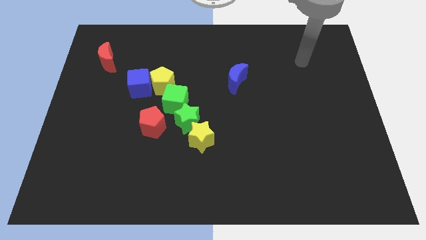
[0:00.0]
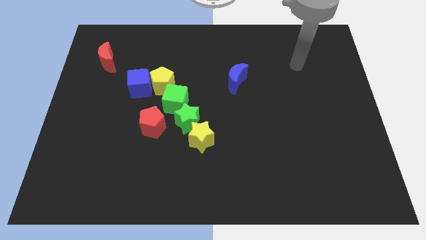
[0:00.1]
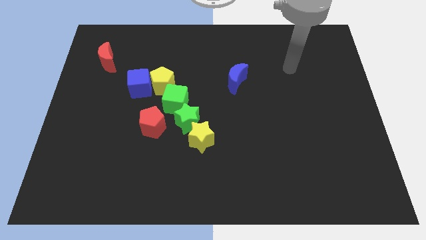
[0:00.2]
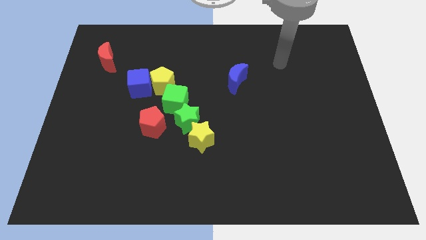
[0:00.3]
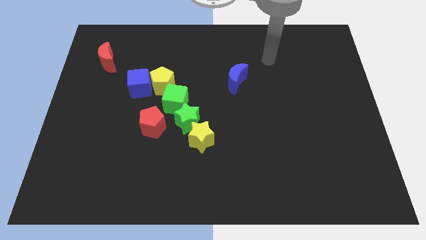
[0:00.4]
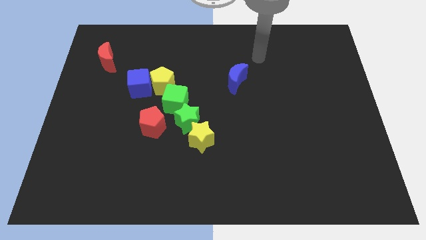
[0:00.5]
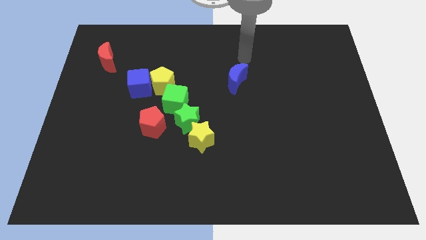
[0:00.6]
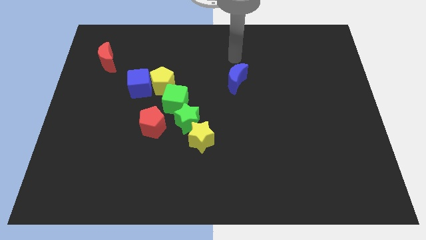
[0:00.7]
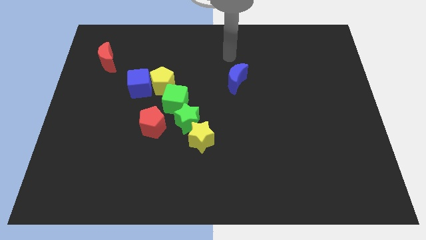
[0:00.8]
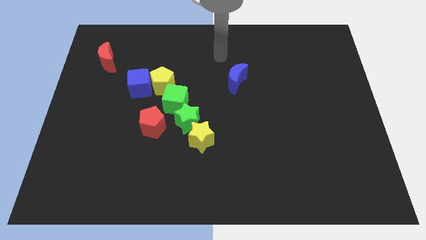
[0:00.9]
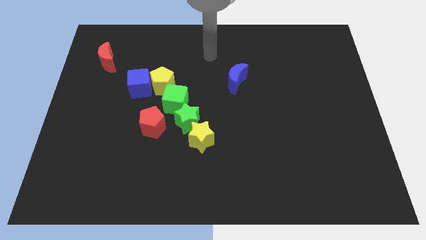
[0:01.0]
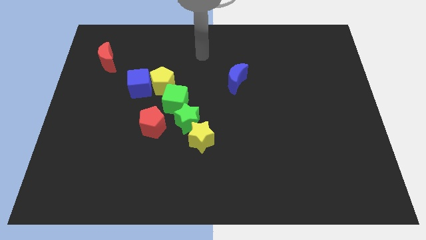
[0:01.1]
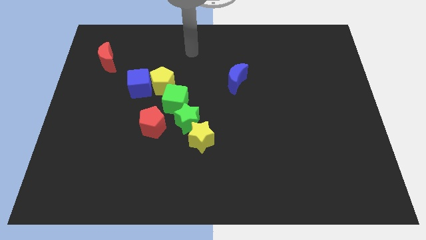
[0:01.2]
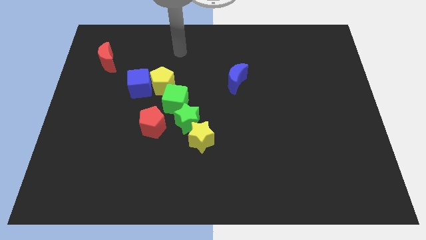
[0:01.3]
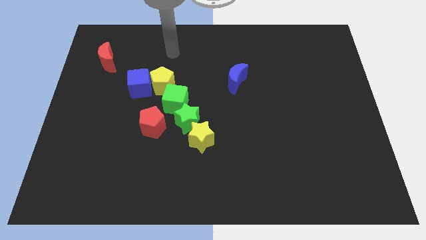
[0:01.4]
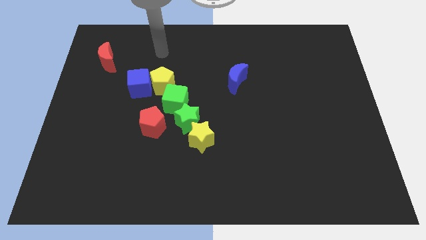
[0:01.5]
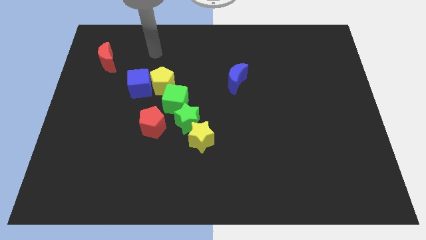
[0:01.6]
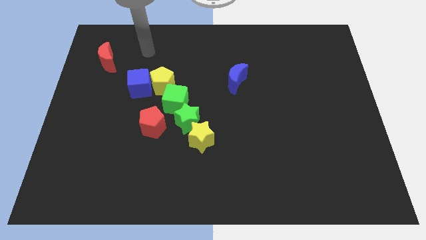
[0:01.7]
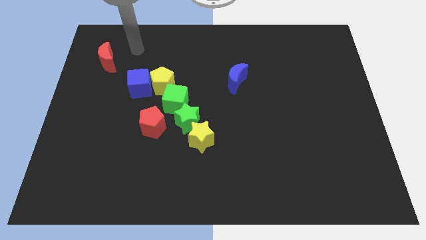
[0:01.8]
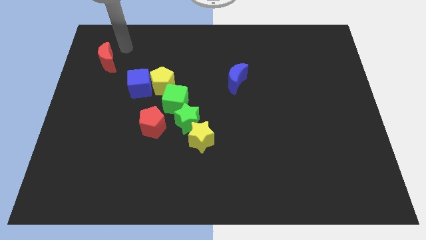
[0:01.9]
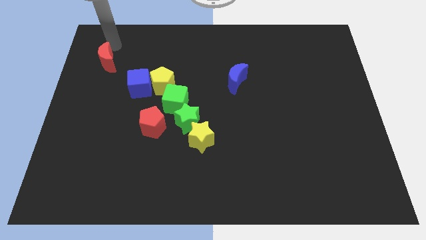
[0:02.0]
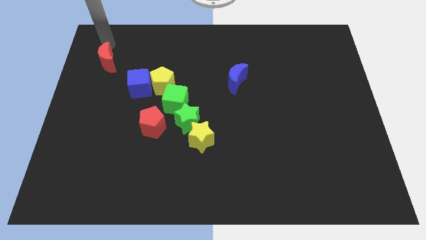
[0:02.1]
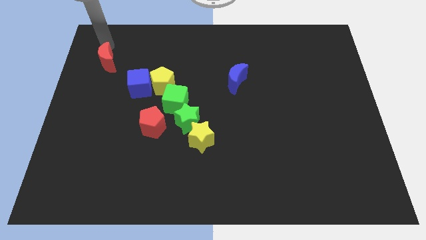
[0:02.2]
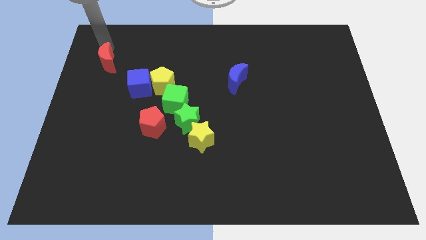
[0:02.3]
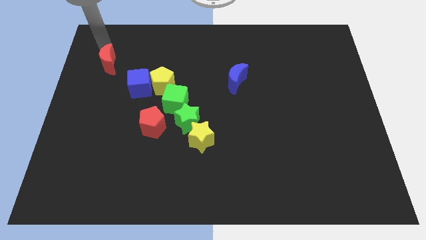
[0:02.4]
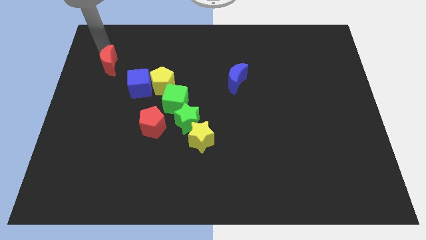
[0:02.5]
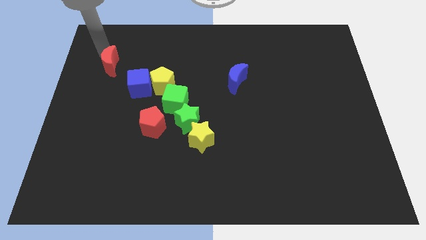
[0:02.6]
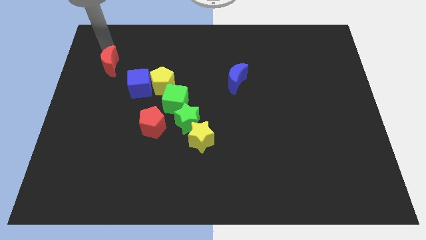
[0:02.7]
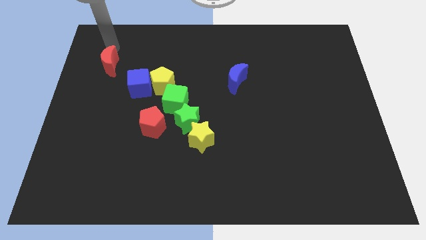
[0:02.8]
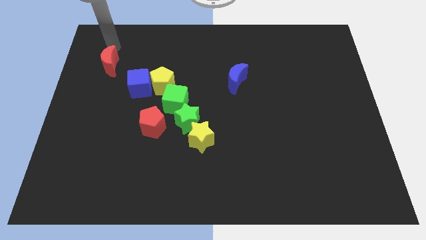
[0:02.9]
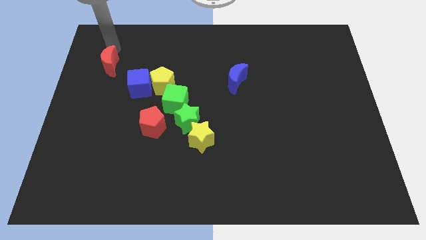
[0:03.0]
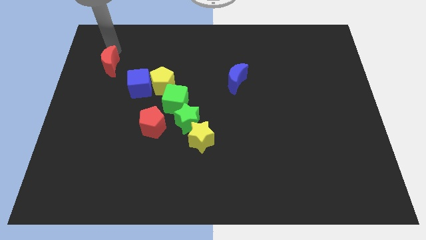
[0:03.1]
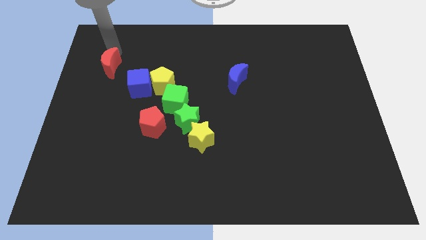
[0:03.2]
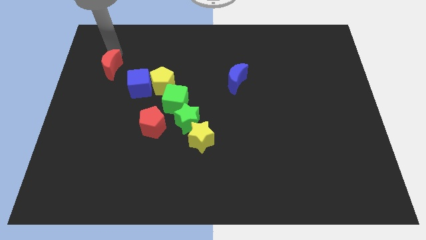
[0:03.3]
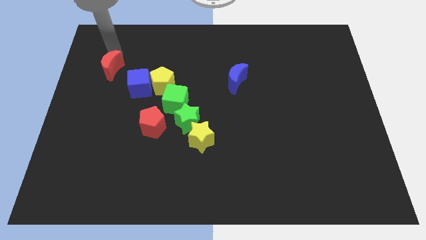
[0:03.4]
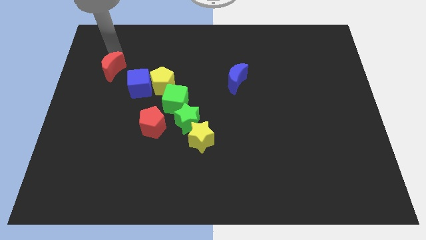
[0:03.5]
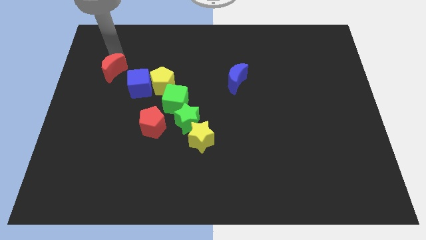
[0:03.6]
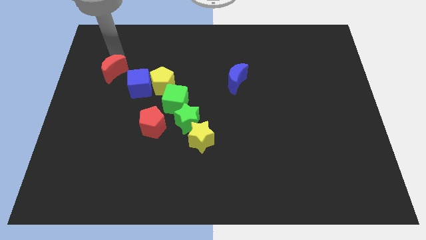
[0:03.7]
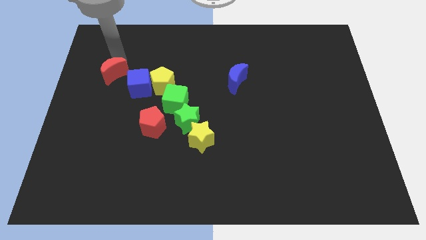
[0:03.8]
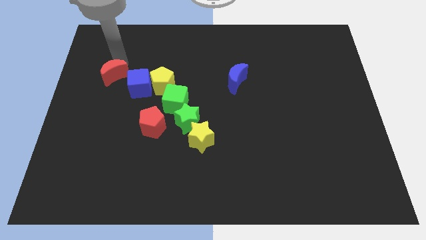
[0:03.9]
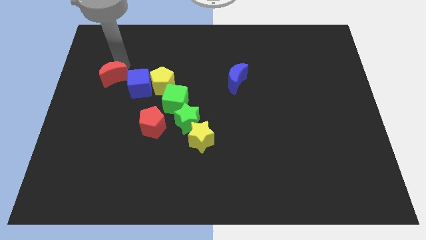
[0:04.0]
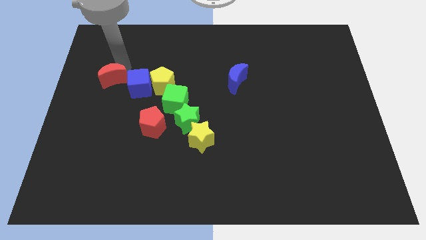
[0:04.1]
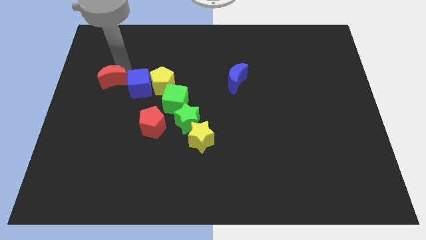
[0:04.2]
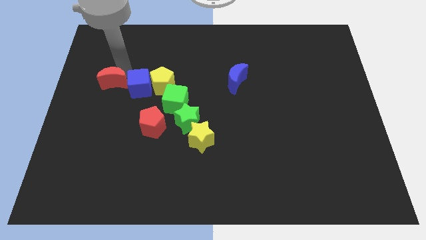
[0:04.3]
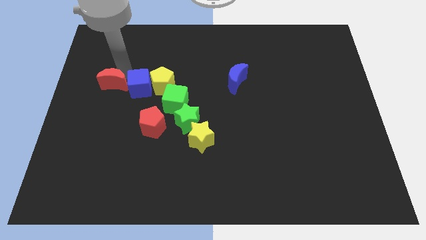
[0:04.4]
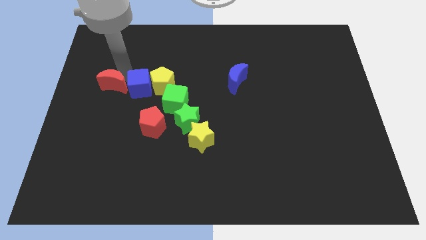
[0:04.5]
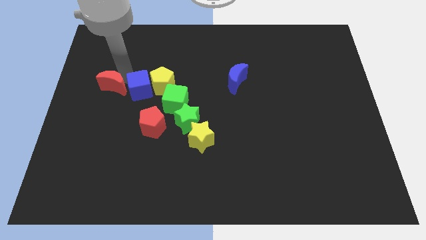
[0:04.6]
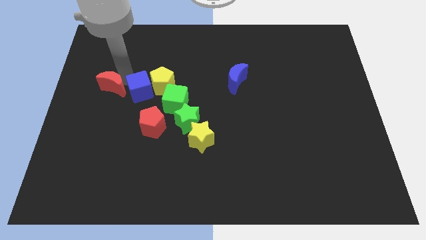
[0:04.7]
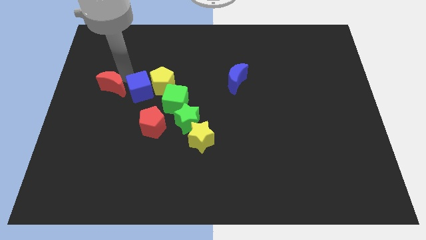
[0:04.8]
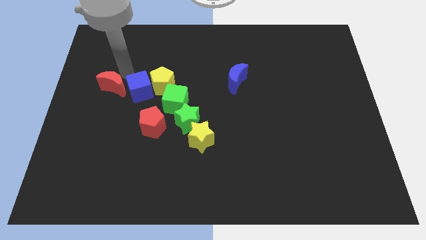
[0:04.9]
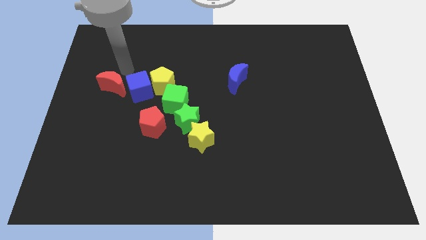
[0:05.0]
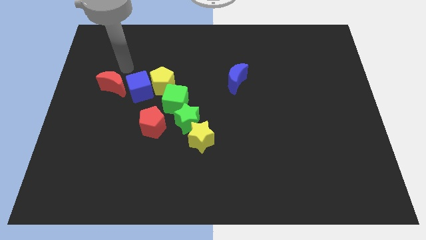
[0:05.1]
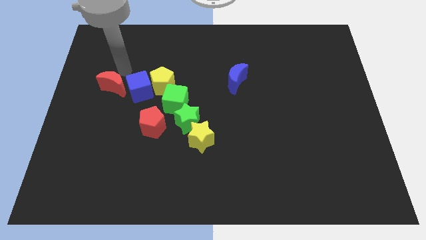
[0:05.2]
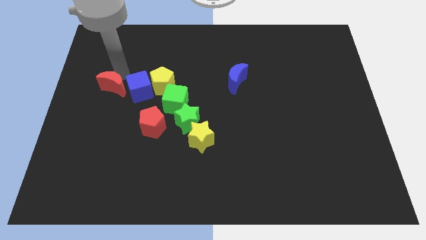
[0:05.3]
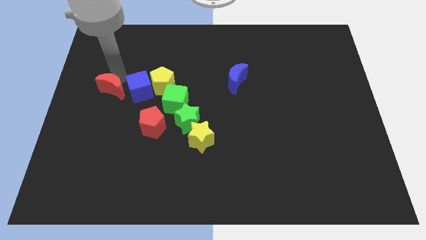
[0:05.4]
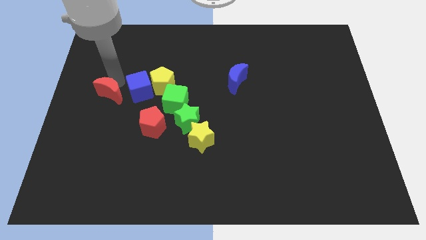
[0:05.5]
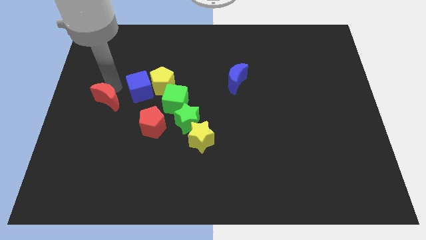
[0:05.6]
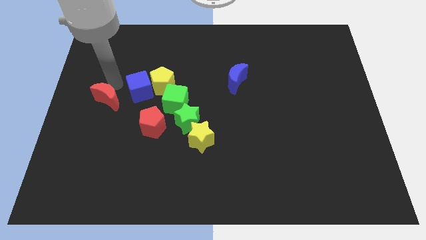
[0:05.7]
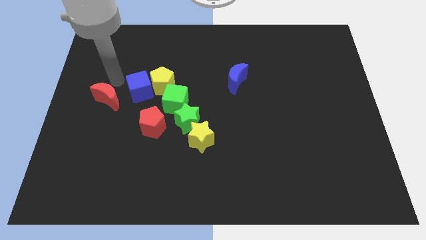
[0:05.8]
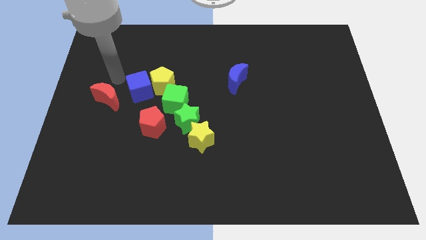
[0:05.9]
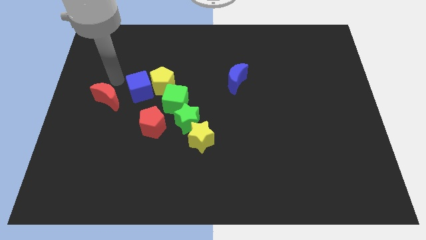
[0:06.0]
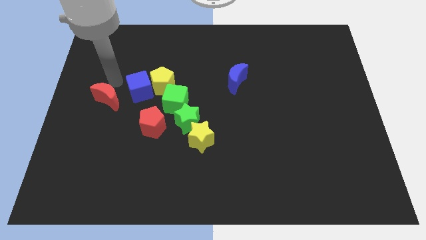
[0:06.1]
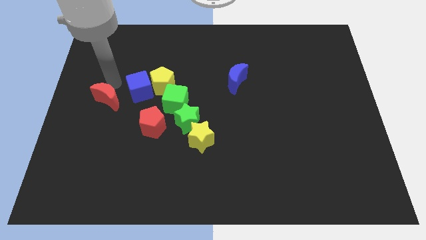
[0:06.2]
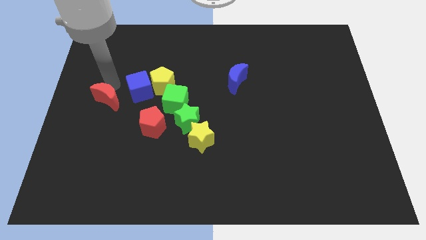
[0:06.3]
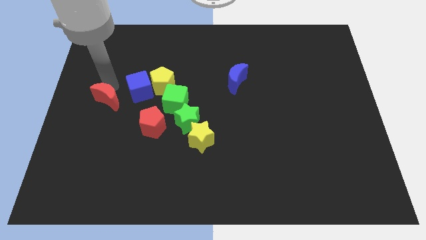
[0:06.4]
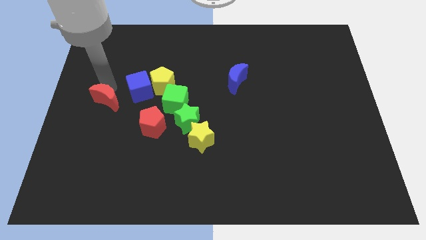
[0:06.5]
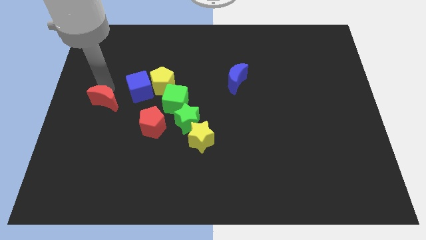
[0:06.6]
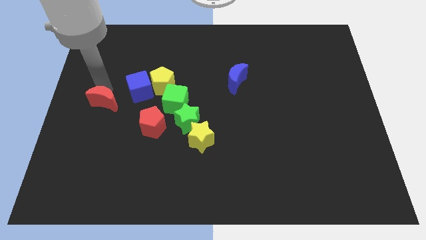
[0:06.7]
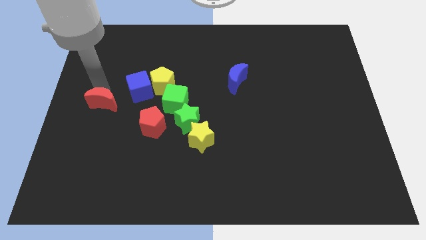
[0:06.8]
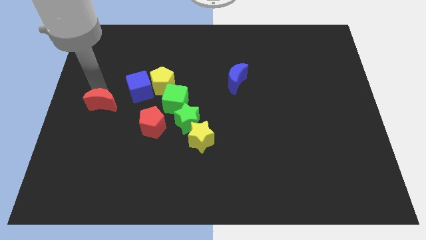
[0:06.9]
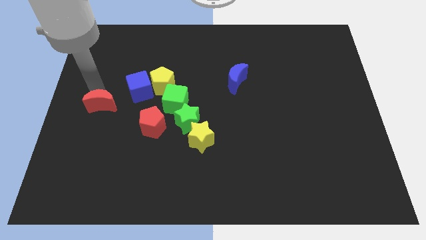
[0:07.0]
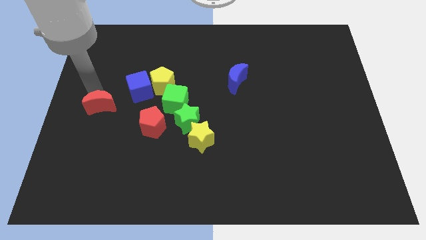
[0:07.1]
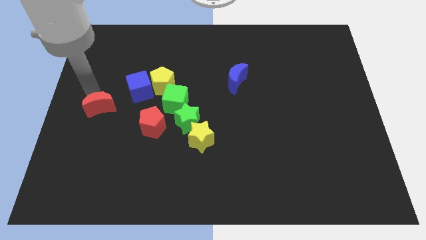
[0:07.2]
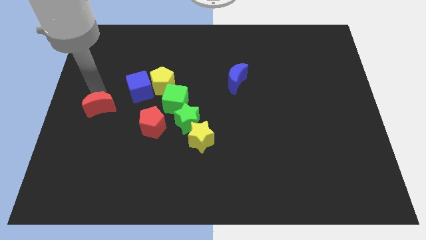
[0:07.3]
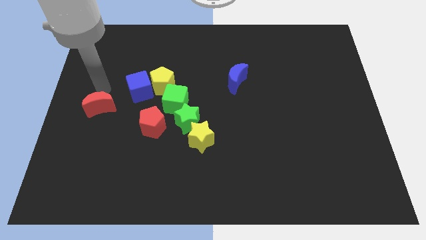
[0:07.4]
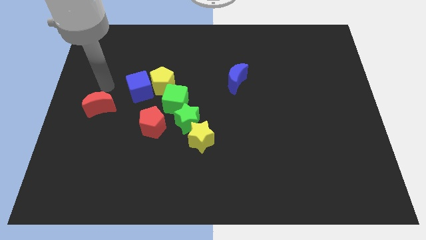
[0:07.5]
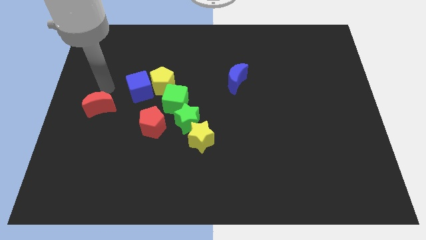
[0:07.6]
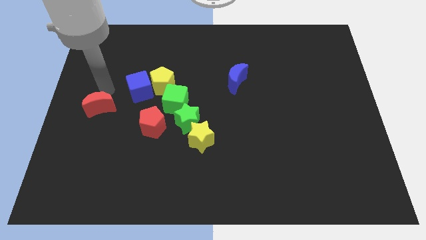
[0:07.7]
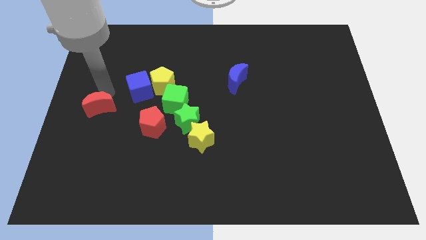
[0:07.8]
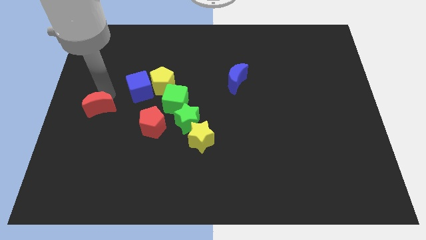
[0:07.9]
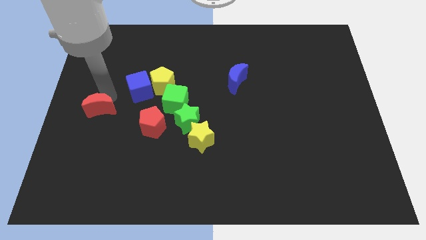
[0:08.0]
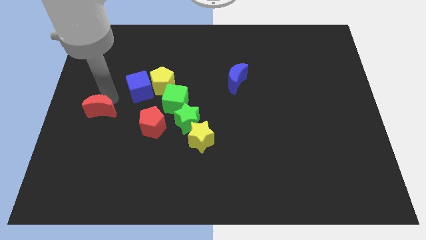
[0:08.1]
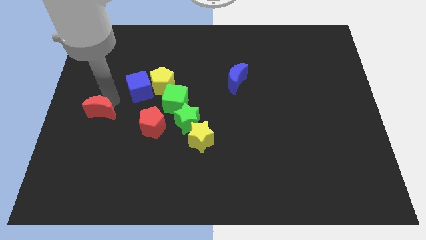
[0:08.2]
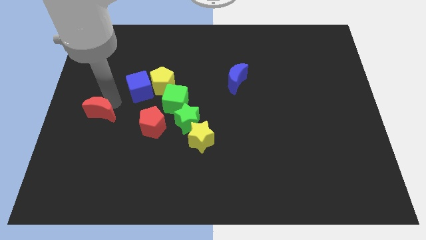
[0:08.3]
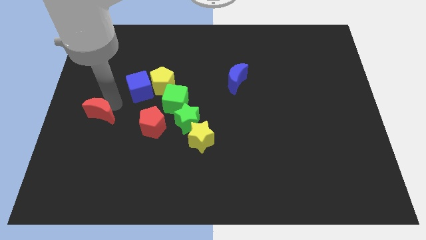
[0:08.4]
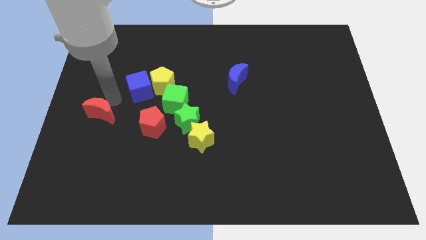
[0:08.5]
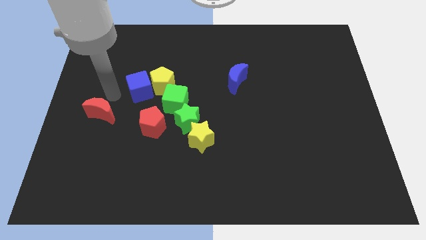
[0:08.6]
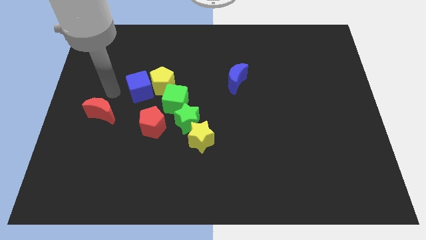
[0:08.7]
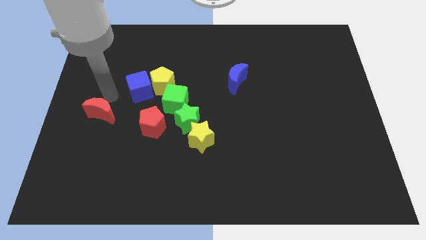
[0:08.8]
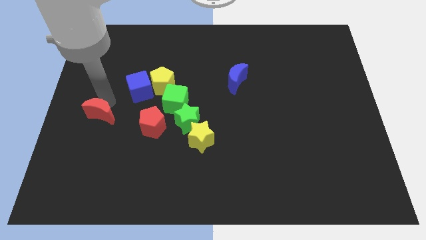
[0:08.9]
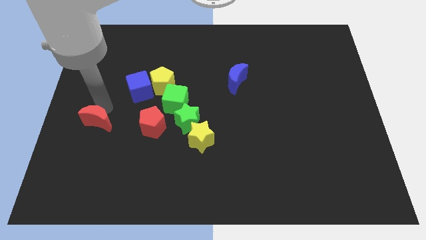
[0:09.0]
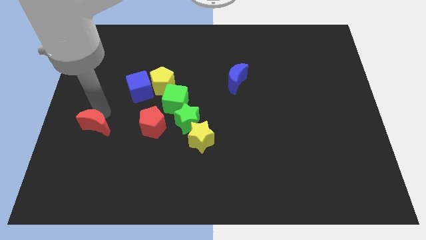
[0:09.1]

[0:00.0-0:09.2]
move the red moon downwards
